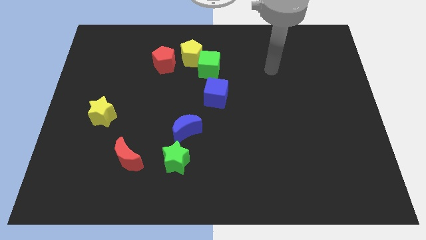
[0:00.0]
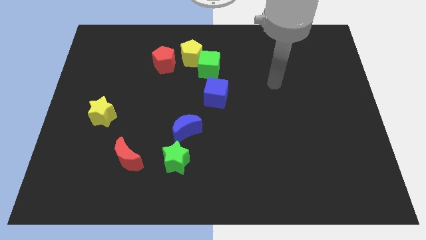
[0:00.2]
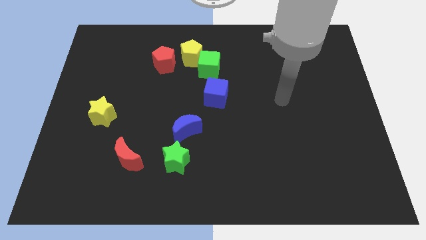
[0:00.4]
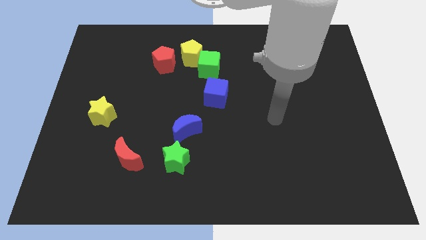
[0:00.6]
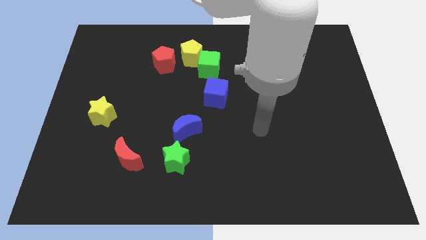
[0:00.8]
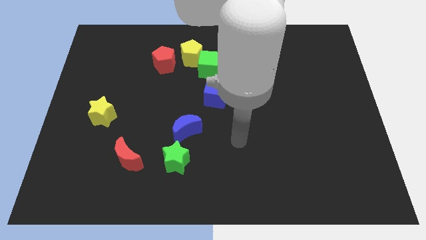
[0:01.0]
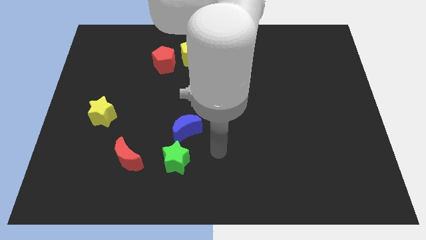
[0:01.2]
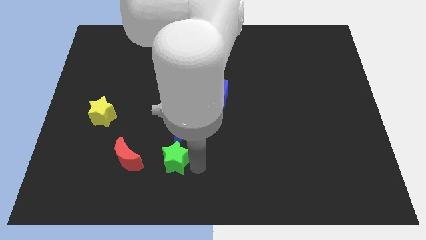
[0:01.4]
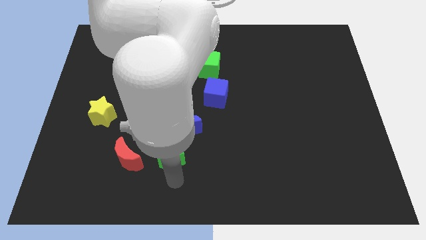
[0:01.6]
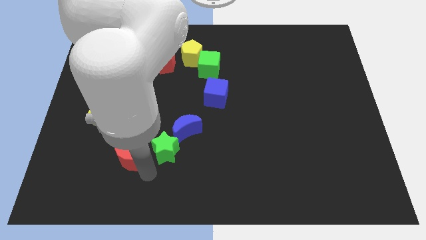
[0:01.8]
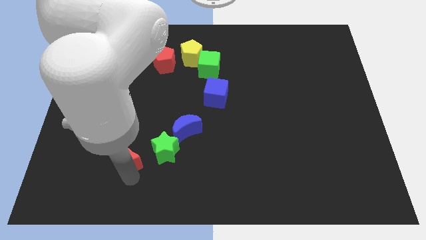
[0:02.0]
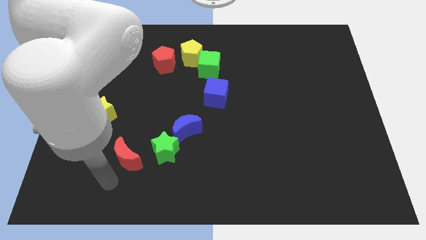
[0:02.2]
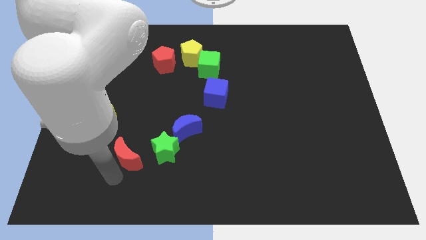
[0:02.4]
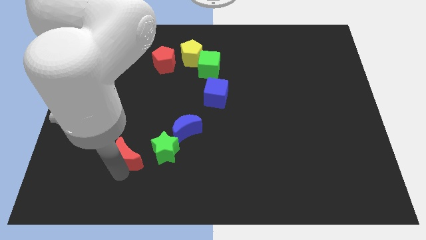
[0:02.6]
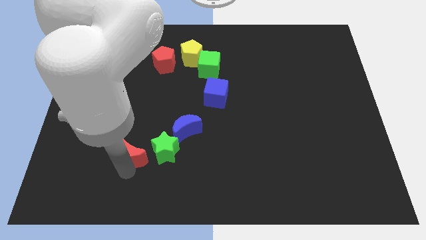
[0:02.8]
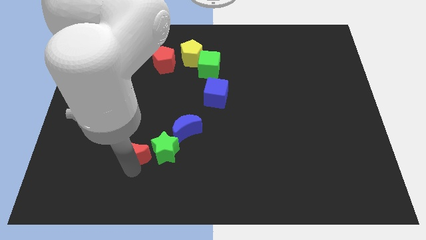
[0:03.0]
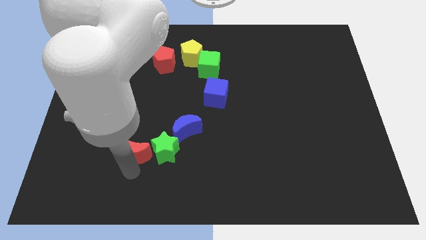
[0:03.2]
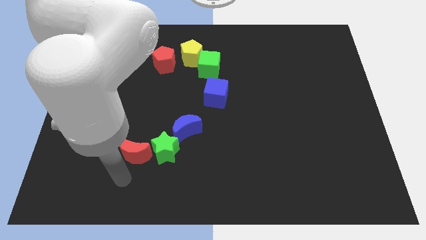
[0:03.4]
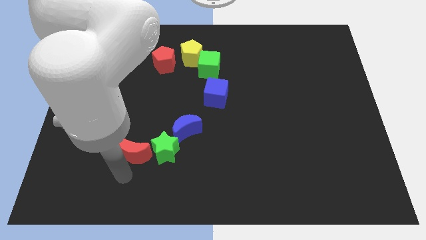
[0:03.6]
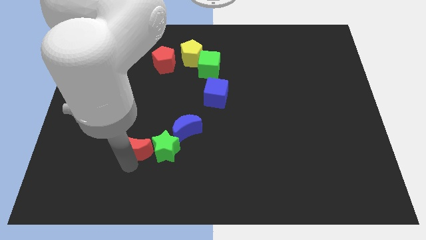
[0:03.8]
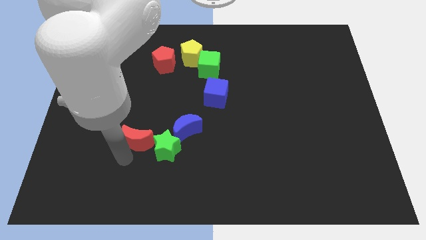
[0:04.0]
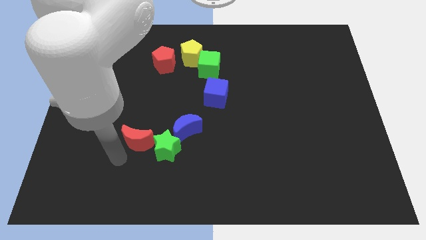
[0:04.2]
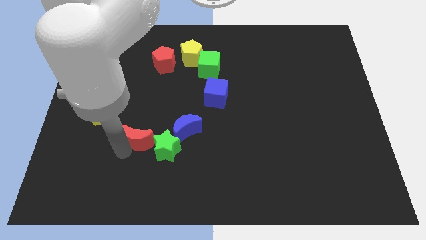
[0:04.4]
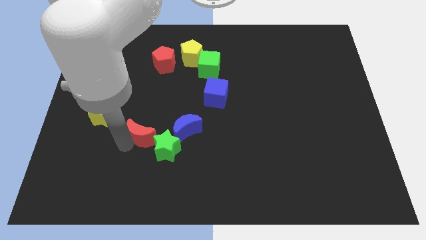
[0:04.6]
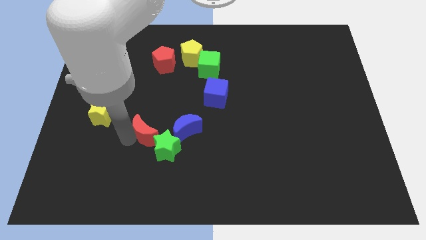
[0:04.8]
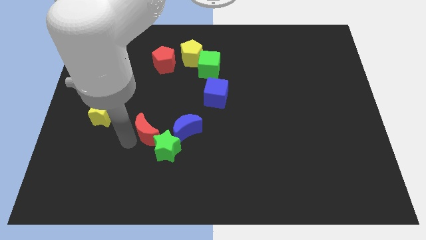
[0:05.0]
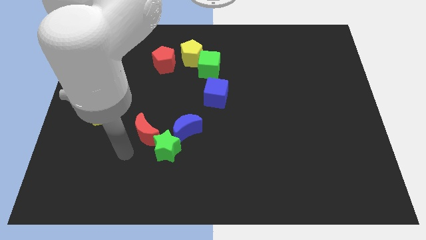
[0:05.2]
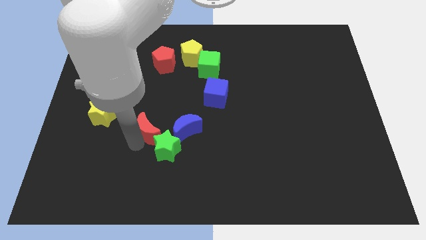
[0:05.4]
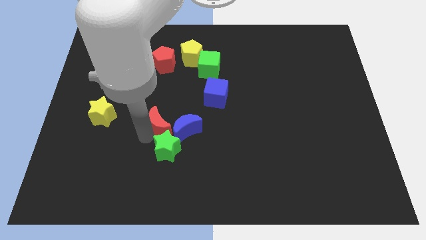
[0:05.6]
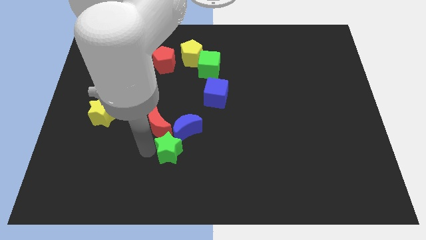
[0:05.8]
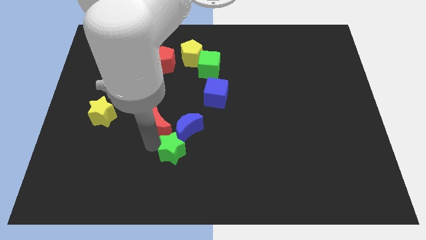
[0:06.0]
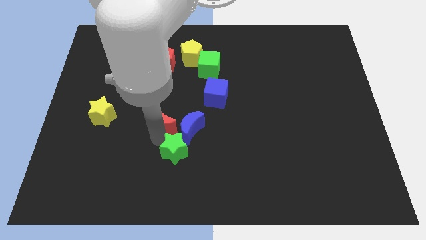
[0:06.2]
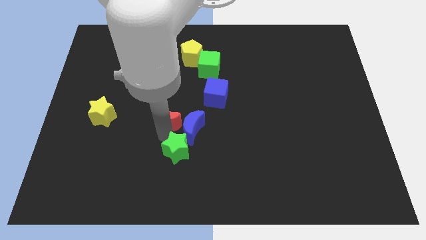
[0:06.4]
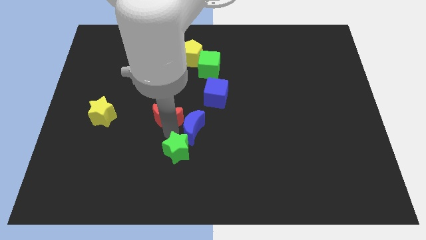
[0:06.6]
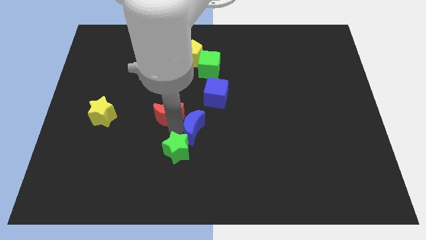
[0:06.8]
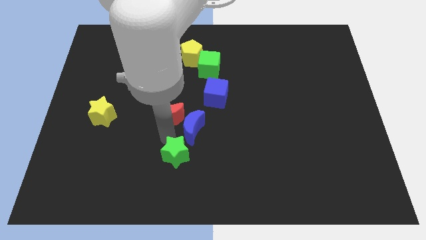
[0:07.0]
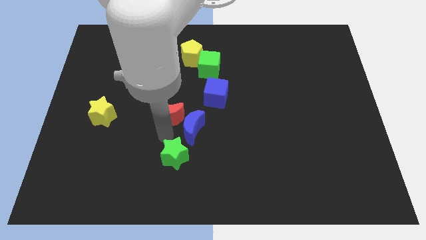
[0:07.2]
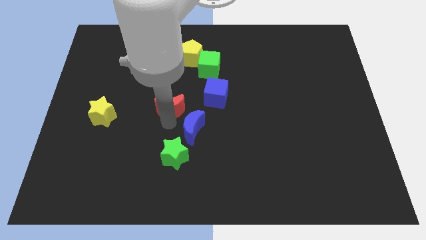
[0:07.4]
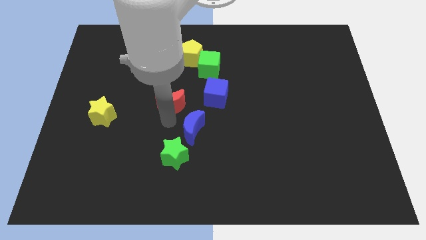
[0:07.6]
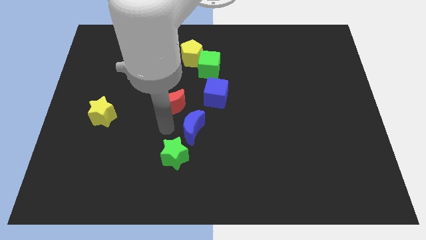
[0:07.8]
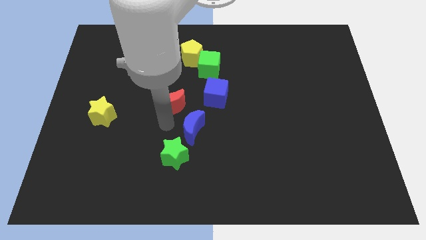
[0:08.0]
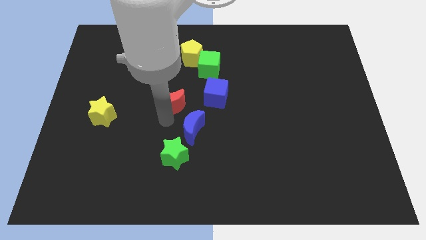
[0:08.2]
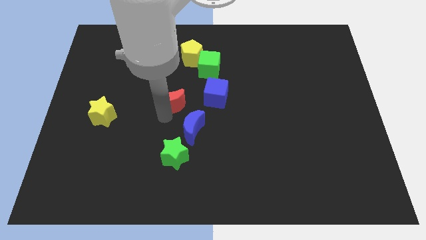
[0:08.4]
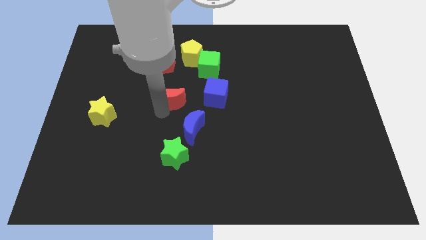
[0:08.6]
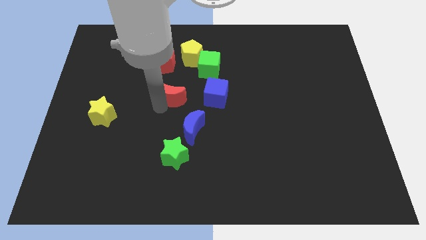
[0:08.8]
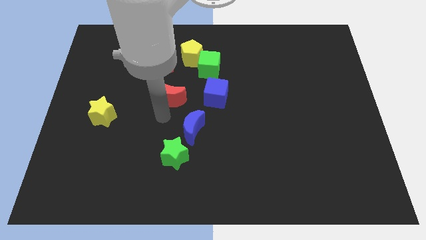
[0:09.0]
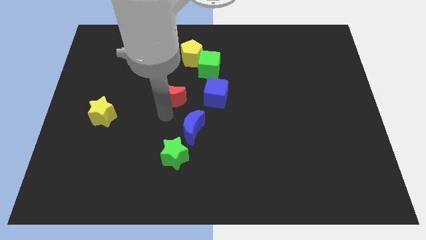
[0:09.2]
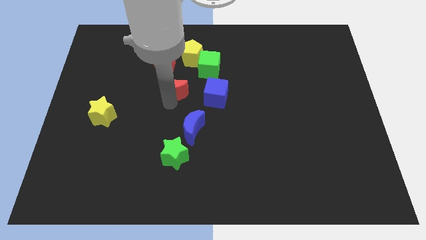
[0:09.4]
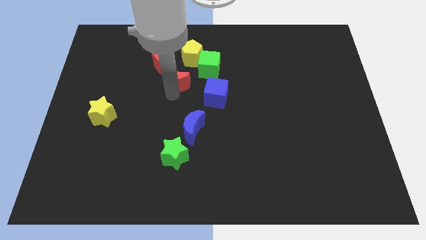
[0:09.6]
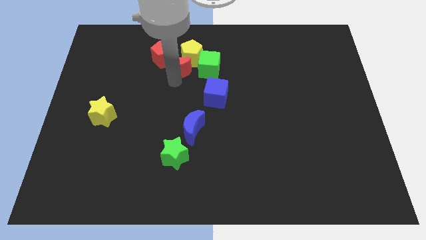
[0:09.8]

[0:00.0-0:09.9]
move the red moon towards the yellow pentagon

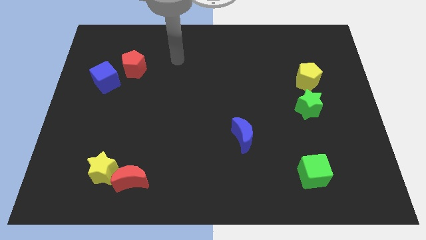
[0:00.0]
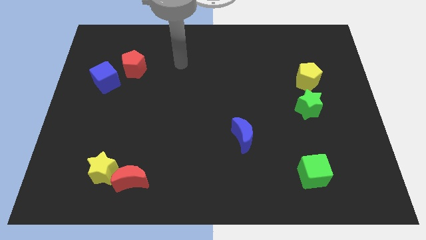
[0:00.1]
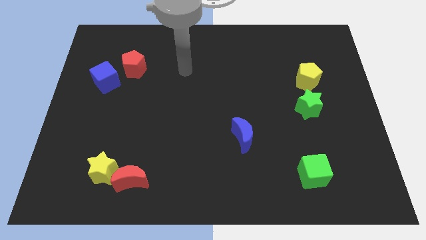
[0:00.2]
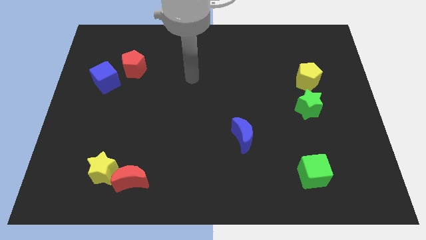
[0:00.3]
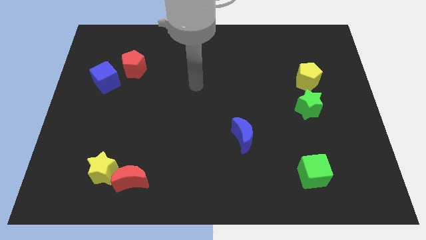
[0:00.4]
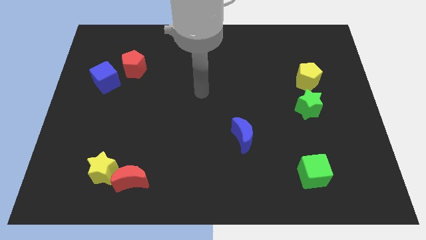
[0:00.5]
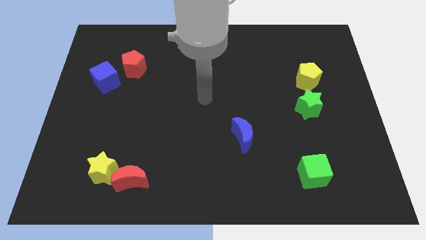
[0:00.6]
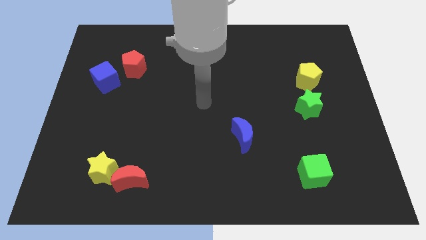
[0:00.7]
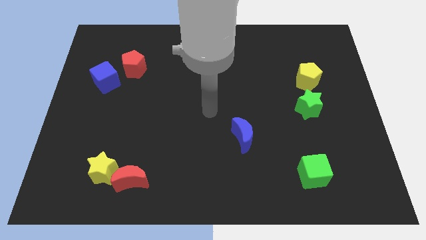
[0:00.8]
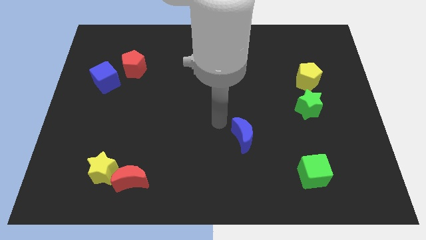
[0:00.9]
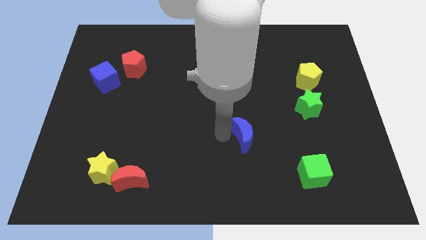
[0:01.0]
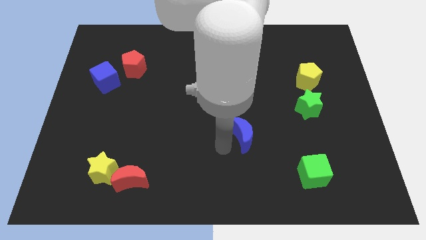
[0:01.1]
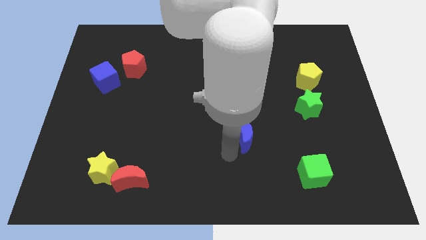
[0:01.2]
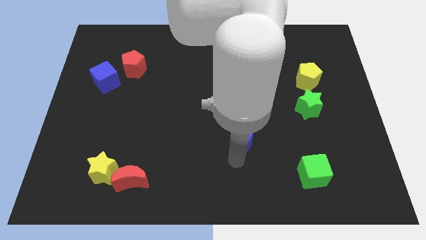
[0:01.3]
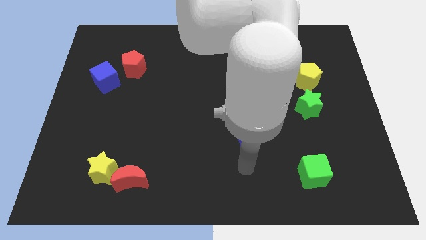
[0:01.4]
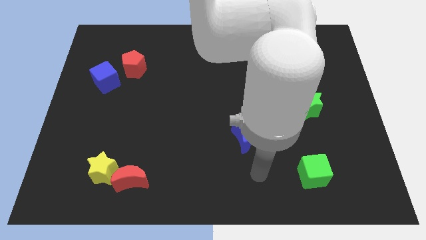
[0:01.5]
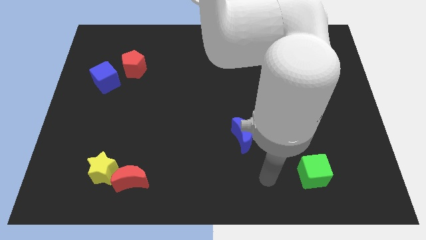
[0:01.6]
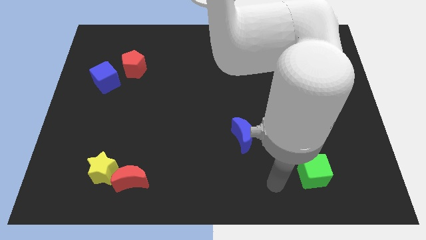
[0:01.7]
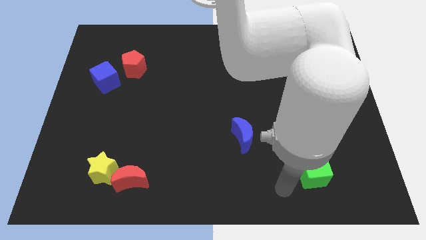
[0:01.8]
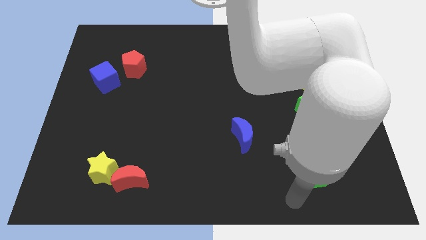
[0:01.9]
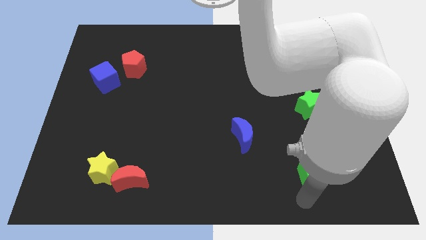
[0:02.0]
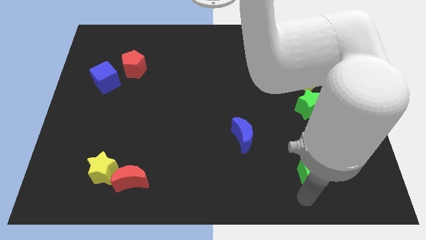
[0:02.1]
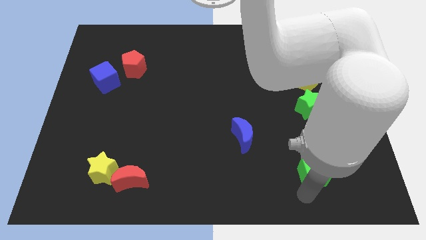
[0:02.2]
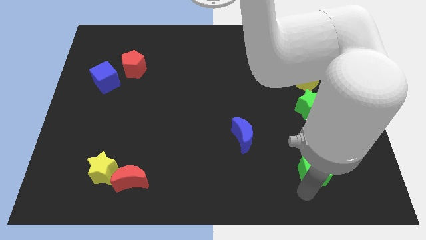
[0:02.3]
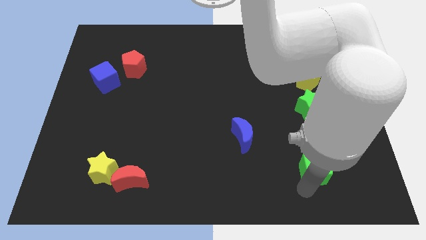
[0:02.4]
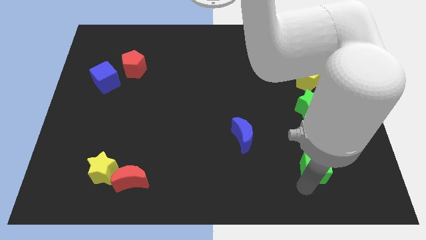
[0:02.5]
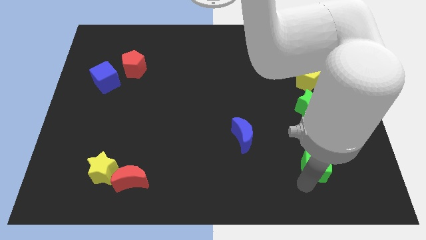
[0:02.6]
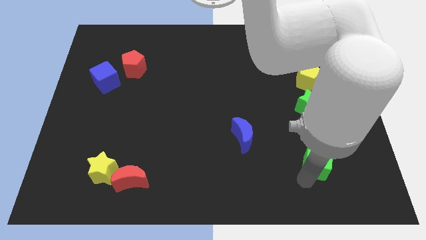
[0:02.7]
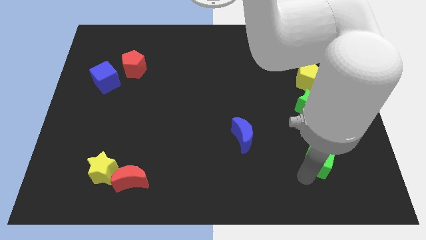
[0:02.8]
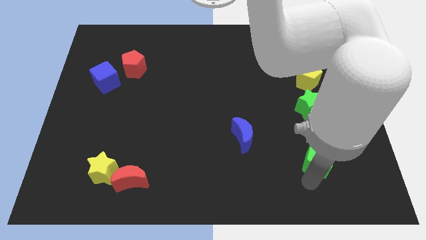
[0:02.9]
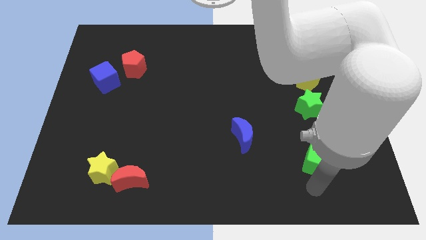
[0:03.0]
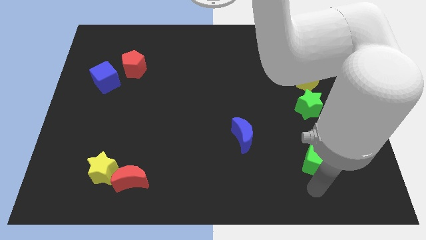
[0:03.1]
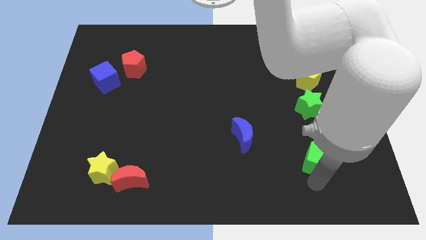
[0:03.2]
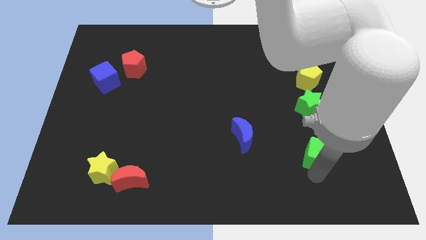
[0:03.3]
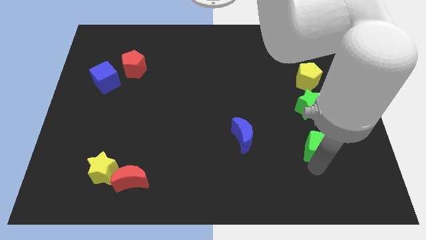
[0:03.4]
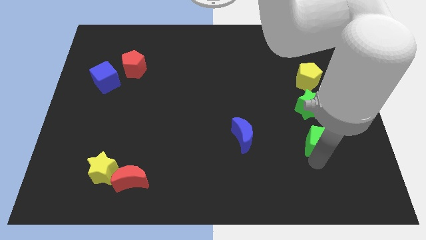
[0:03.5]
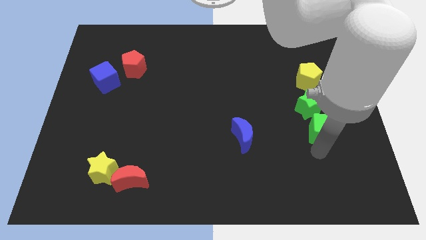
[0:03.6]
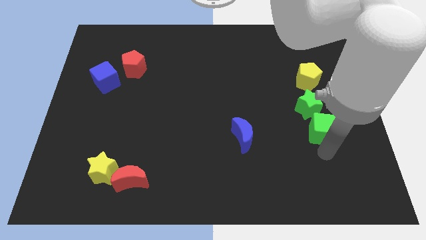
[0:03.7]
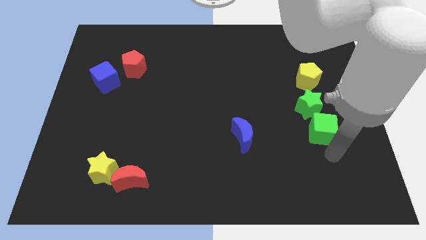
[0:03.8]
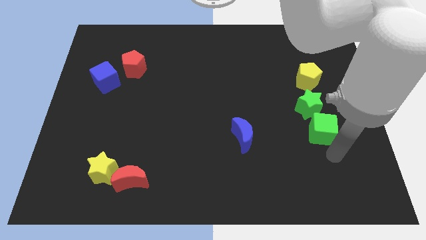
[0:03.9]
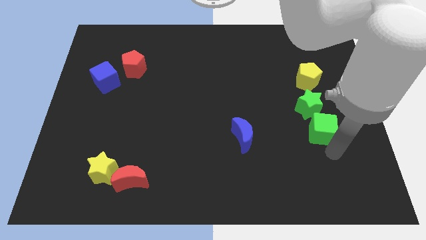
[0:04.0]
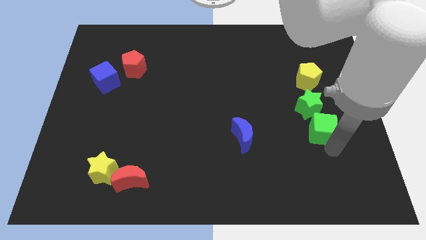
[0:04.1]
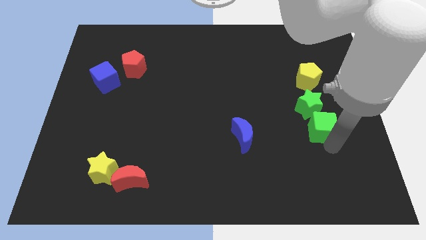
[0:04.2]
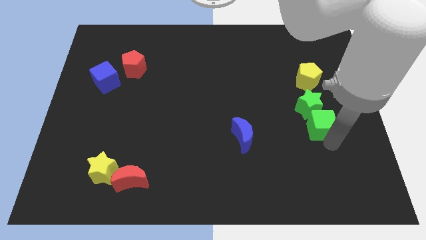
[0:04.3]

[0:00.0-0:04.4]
put the green cube close to the green star
